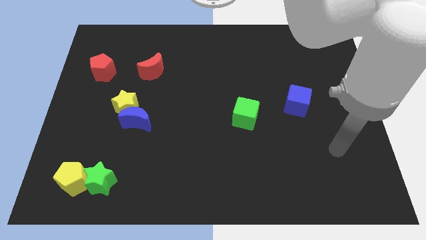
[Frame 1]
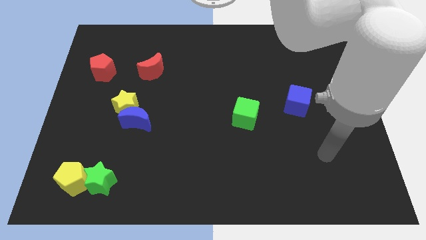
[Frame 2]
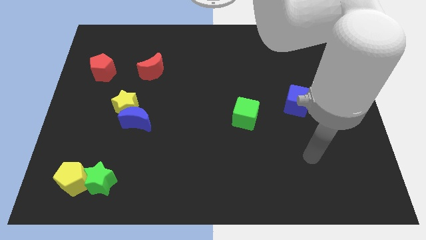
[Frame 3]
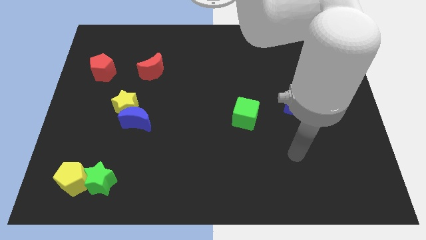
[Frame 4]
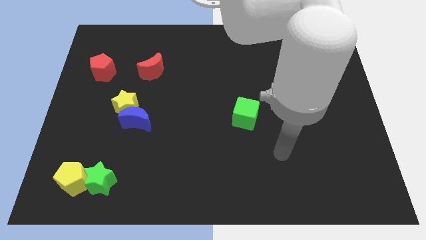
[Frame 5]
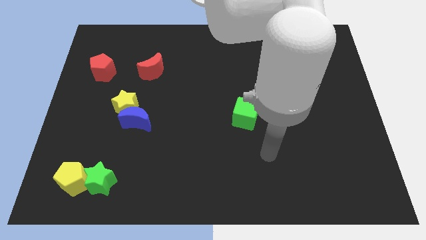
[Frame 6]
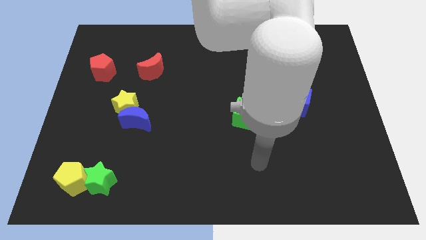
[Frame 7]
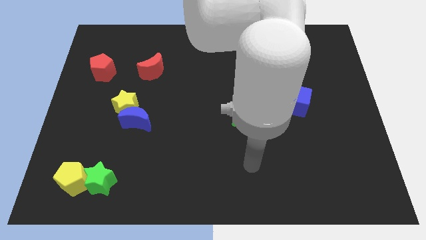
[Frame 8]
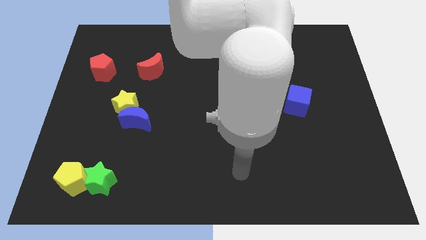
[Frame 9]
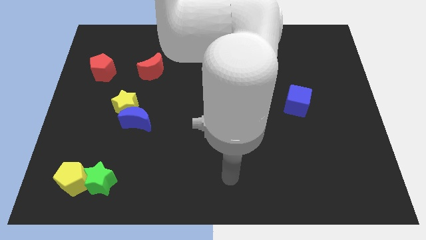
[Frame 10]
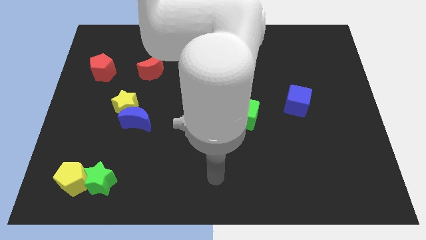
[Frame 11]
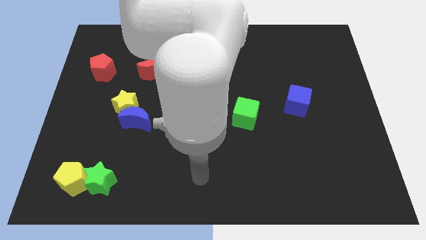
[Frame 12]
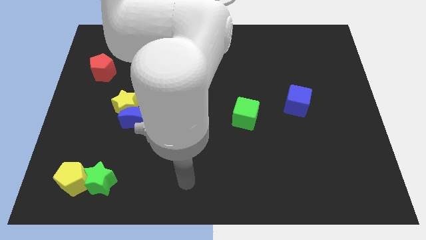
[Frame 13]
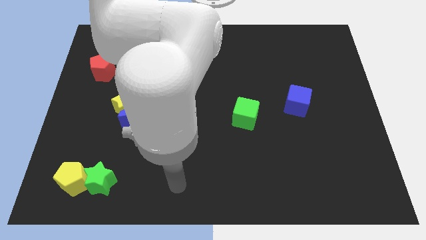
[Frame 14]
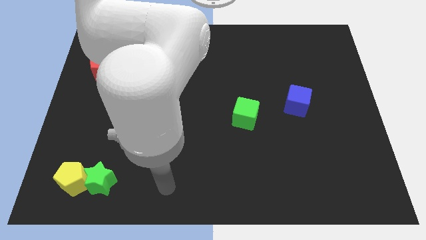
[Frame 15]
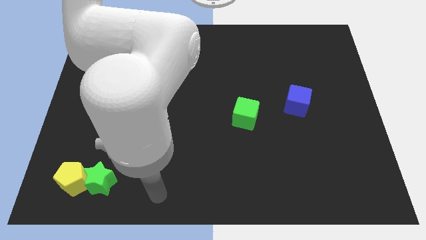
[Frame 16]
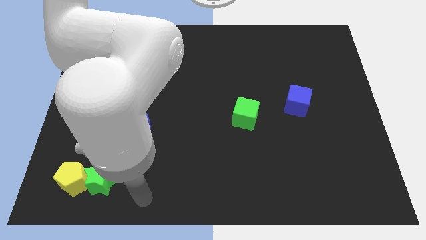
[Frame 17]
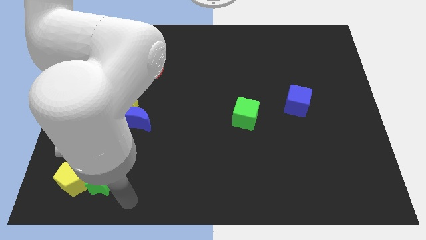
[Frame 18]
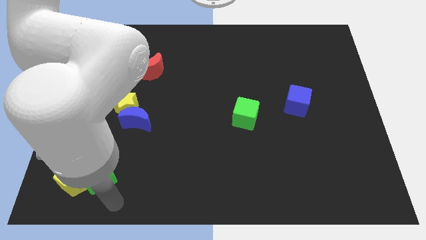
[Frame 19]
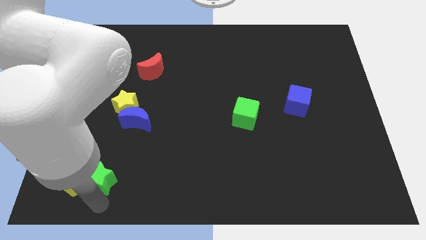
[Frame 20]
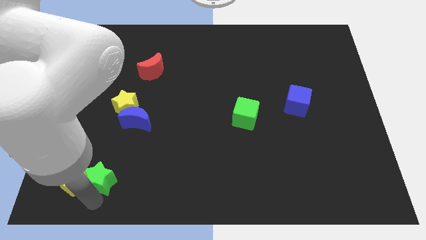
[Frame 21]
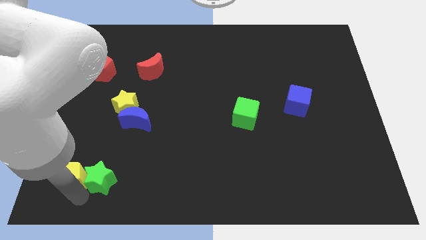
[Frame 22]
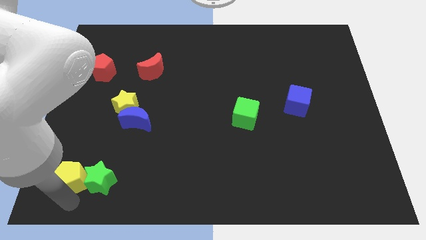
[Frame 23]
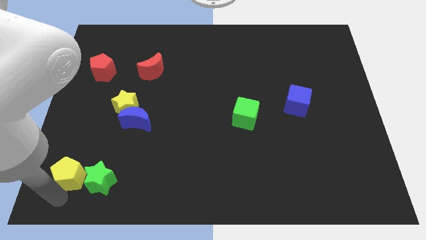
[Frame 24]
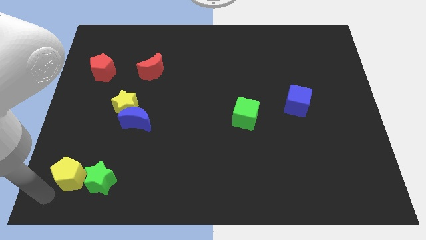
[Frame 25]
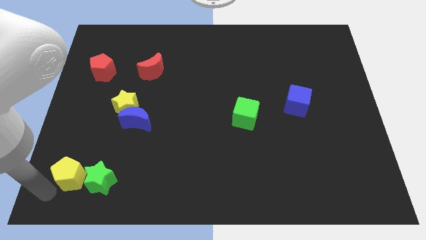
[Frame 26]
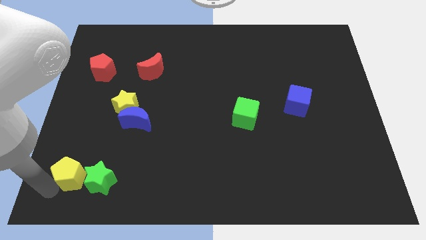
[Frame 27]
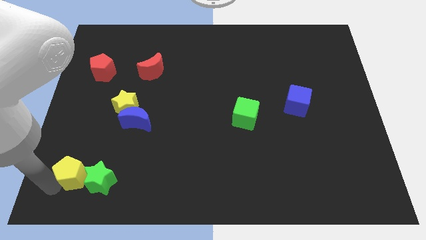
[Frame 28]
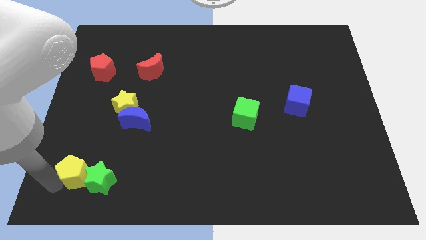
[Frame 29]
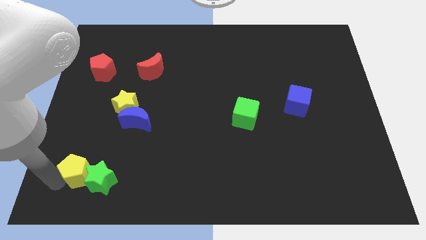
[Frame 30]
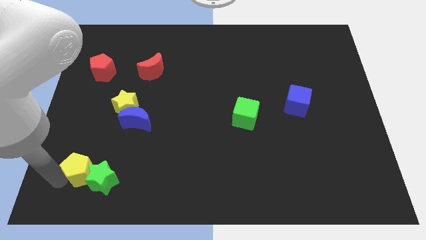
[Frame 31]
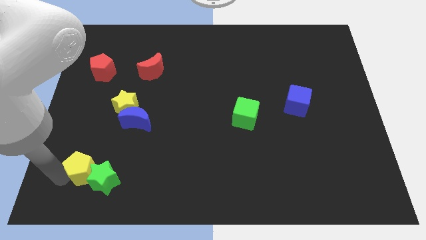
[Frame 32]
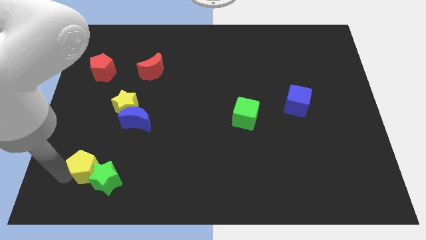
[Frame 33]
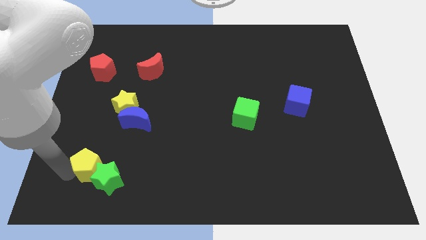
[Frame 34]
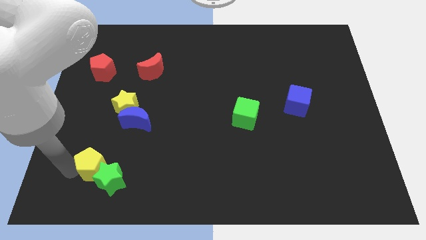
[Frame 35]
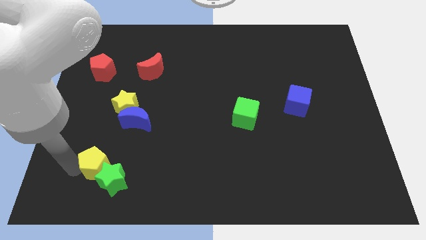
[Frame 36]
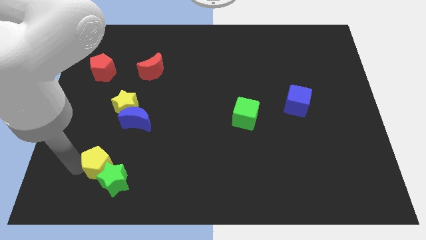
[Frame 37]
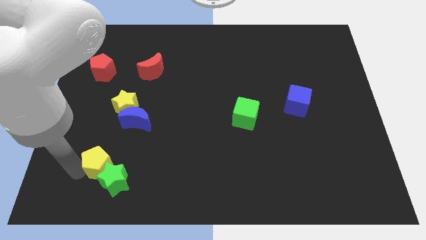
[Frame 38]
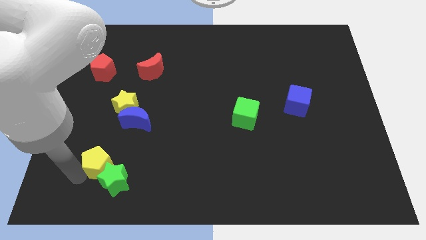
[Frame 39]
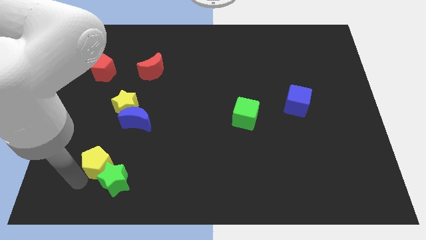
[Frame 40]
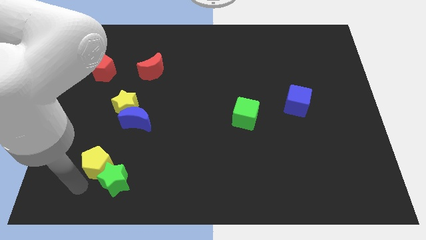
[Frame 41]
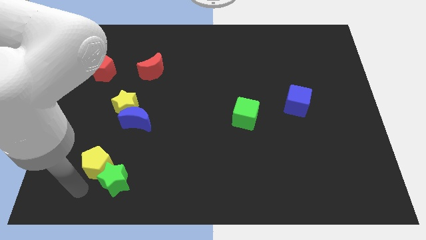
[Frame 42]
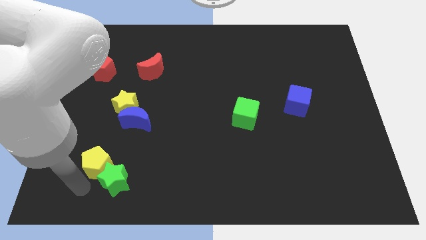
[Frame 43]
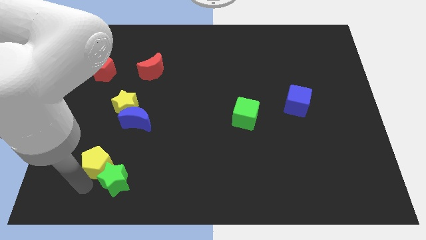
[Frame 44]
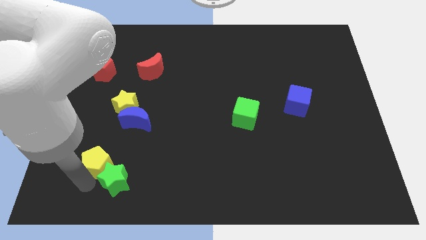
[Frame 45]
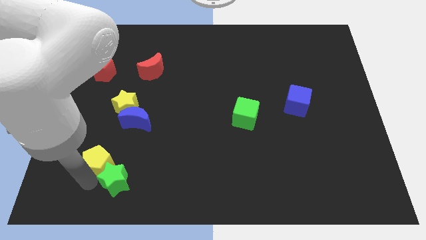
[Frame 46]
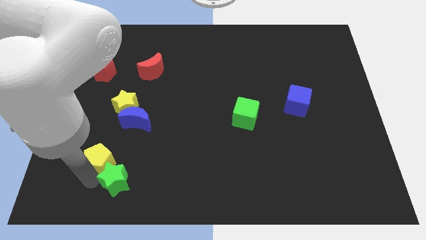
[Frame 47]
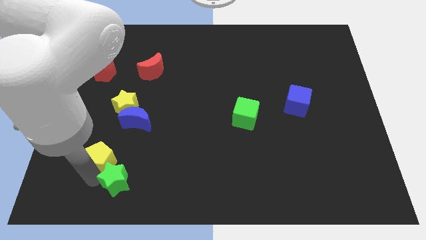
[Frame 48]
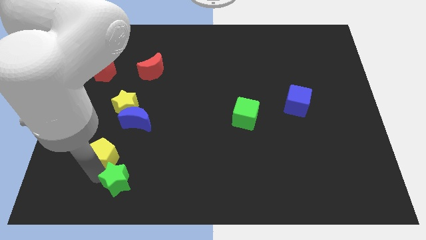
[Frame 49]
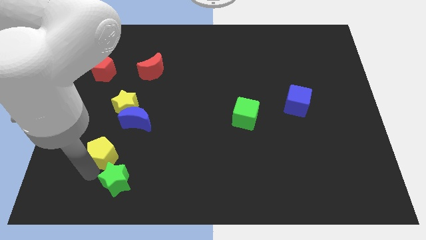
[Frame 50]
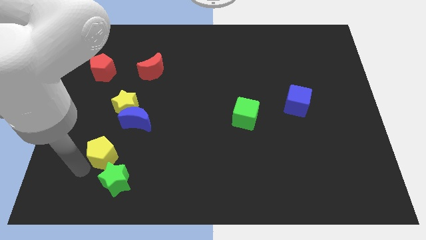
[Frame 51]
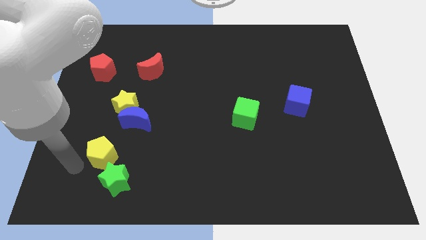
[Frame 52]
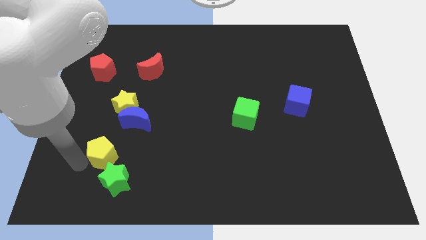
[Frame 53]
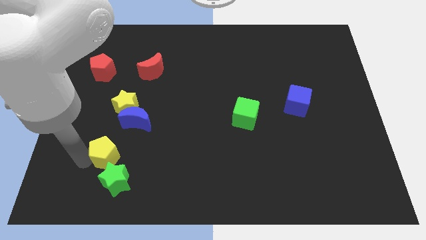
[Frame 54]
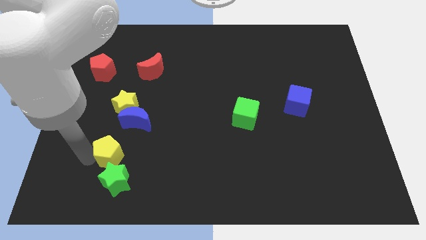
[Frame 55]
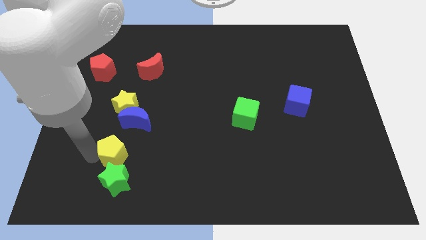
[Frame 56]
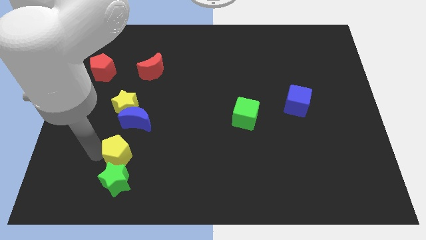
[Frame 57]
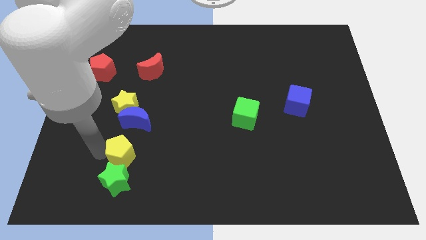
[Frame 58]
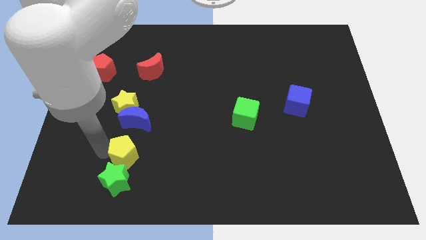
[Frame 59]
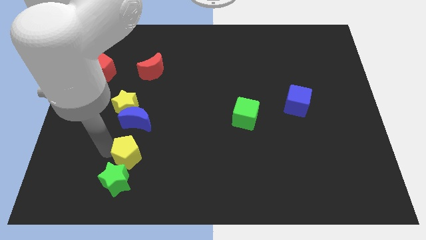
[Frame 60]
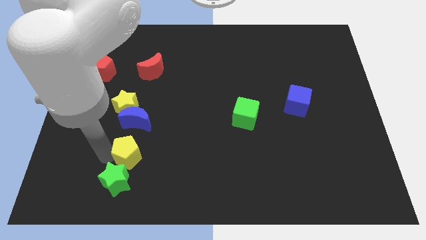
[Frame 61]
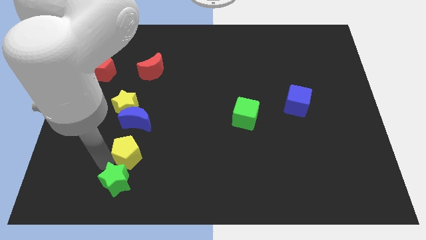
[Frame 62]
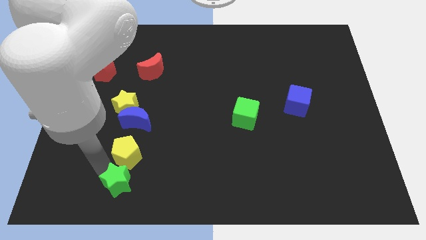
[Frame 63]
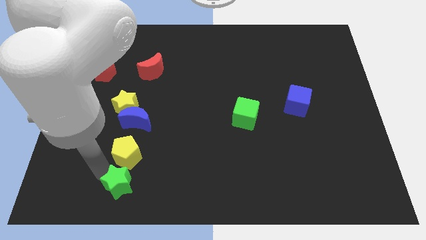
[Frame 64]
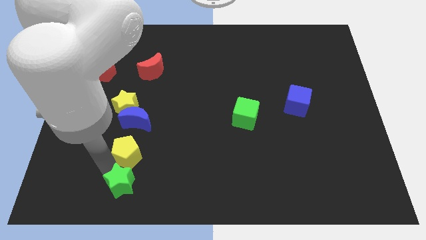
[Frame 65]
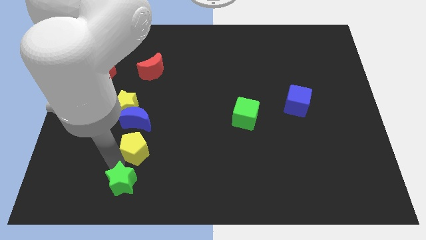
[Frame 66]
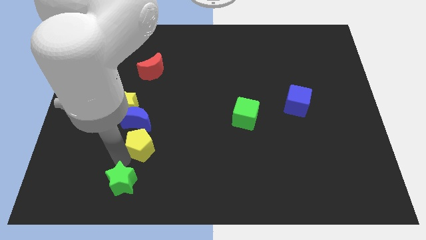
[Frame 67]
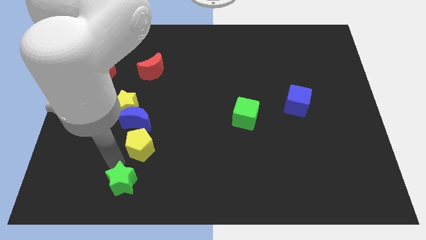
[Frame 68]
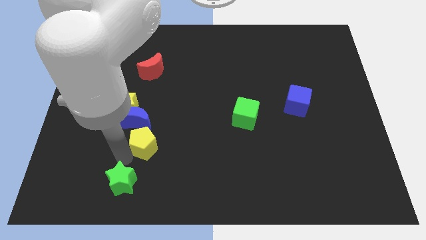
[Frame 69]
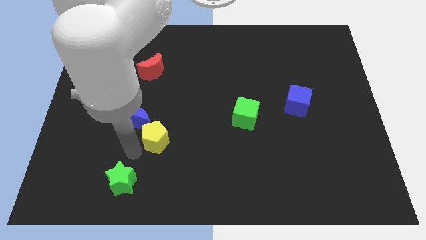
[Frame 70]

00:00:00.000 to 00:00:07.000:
put the yellow pentagon to the right of the blue moon
